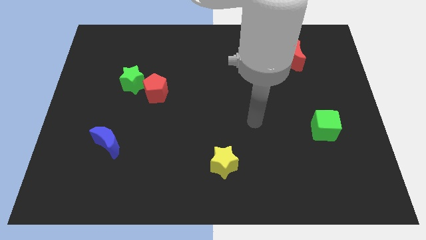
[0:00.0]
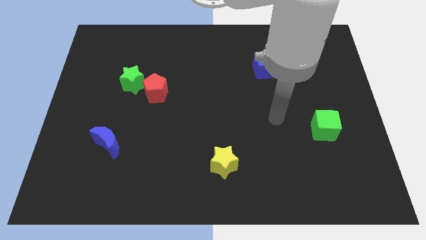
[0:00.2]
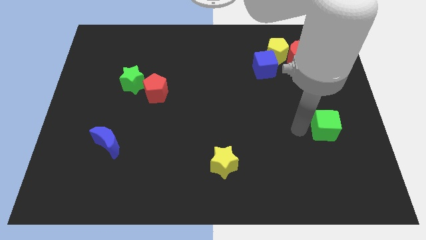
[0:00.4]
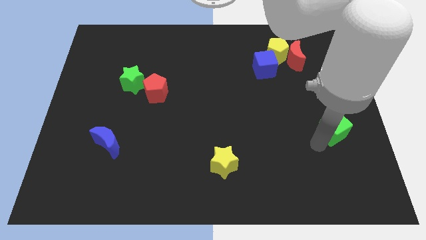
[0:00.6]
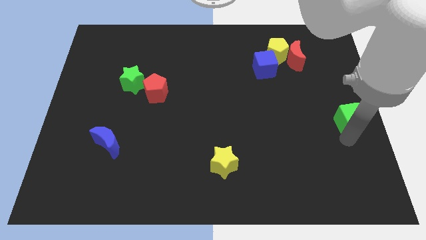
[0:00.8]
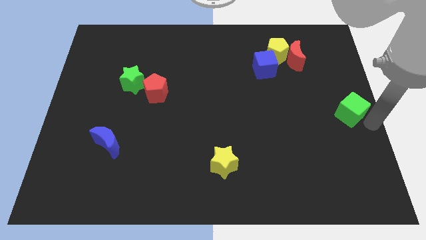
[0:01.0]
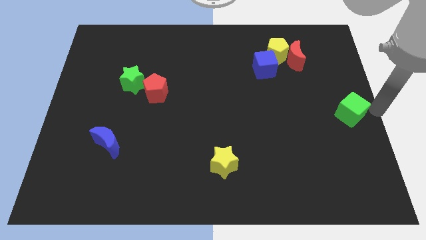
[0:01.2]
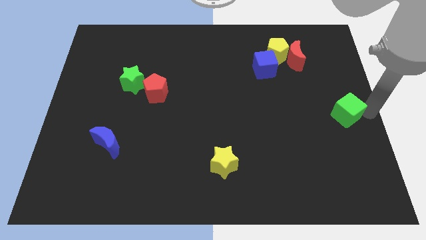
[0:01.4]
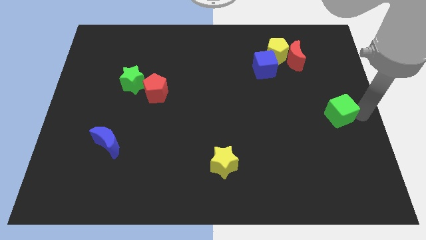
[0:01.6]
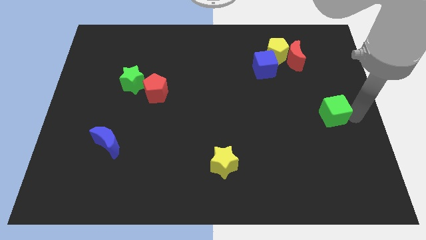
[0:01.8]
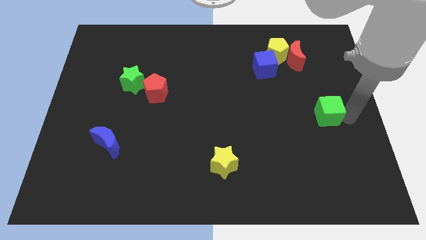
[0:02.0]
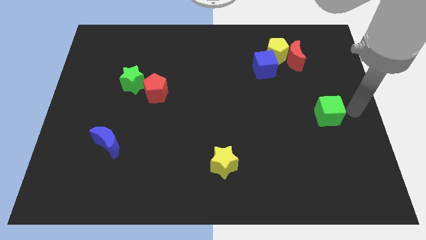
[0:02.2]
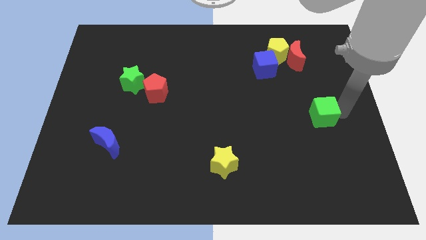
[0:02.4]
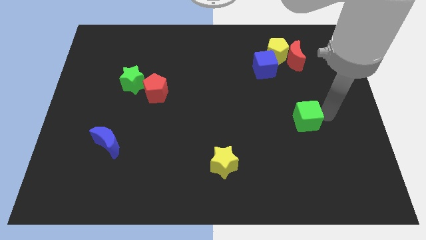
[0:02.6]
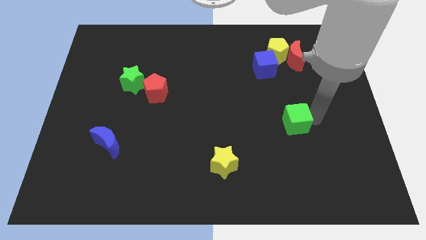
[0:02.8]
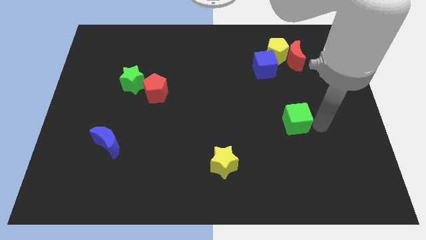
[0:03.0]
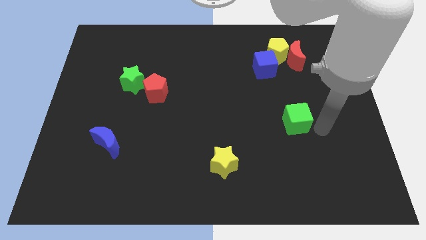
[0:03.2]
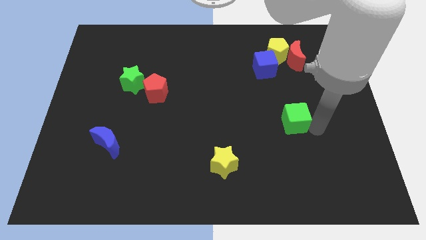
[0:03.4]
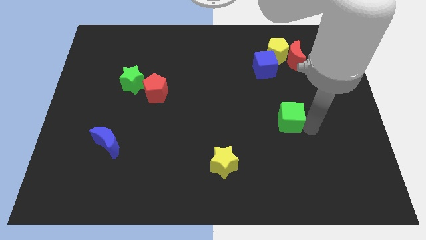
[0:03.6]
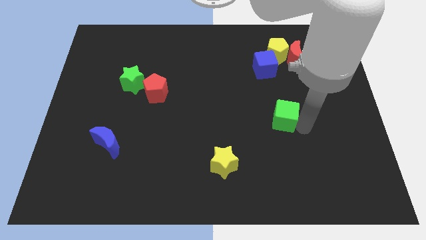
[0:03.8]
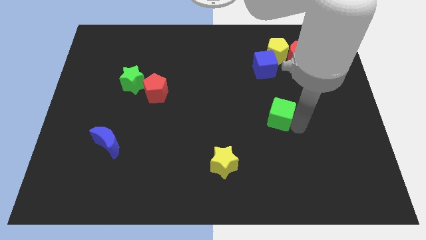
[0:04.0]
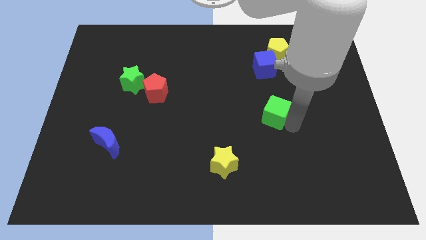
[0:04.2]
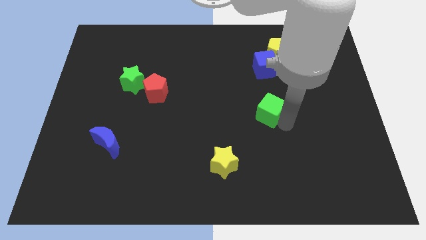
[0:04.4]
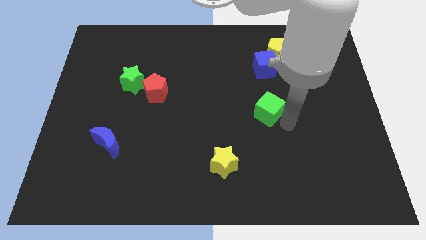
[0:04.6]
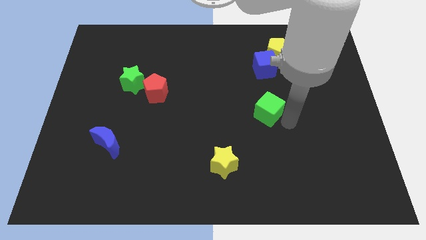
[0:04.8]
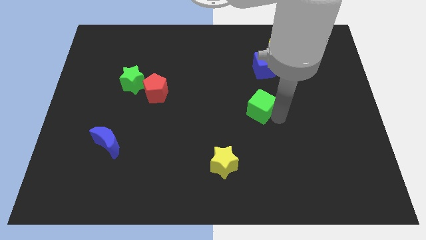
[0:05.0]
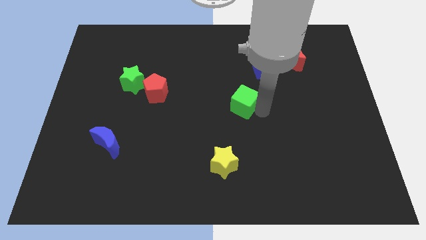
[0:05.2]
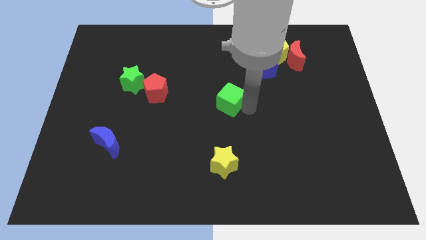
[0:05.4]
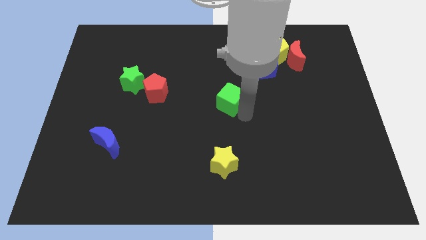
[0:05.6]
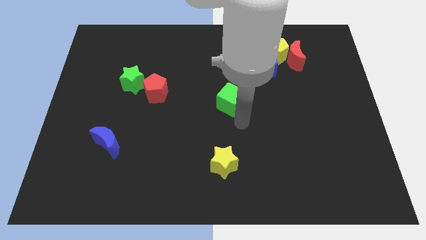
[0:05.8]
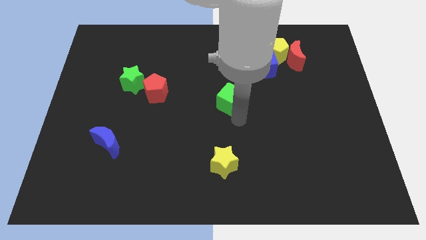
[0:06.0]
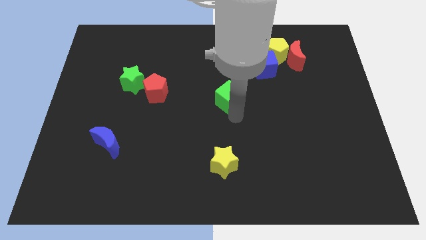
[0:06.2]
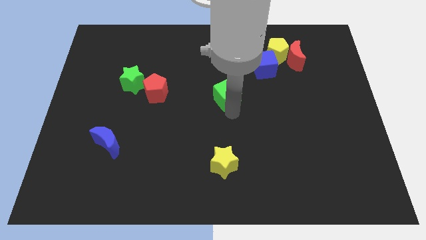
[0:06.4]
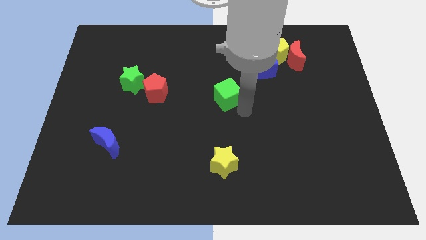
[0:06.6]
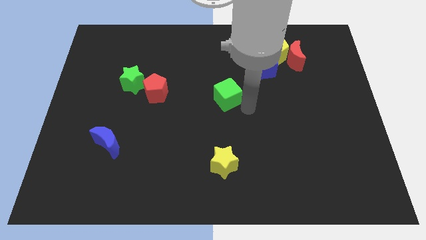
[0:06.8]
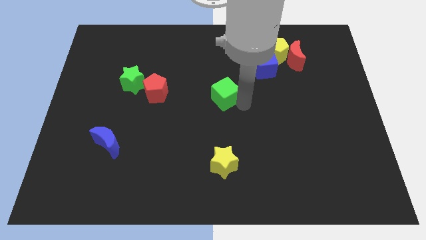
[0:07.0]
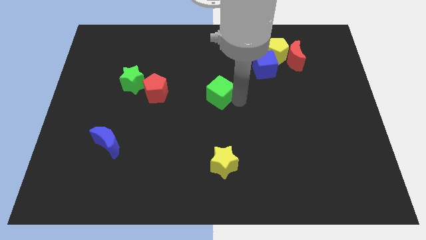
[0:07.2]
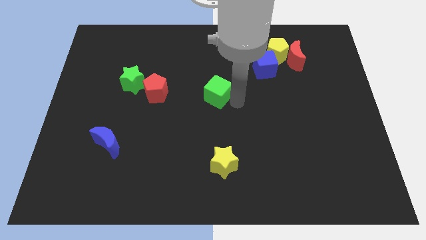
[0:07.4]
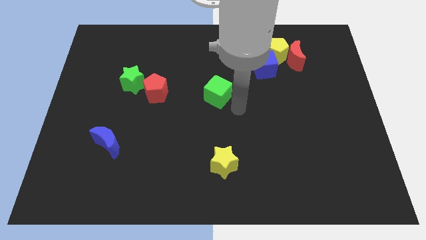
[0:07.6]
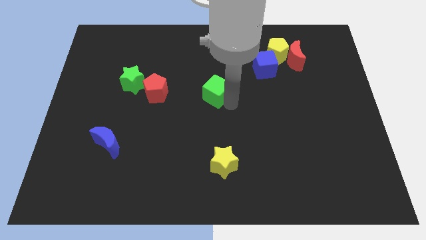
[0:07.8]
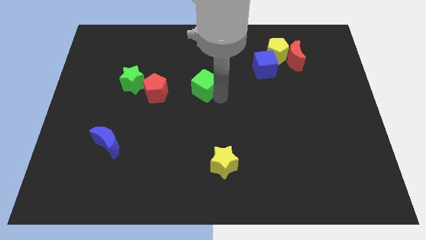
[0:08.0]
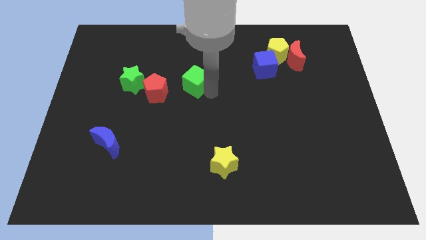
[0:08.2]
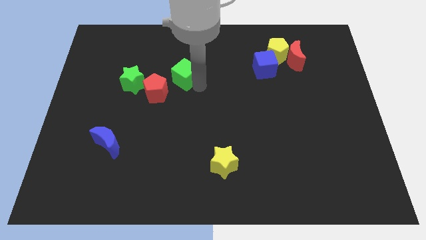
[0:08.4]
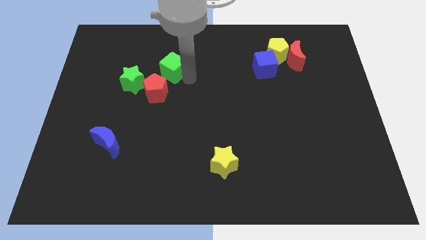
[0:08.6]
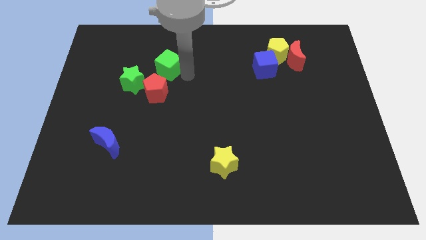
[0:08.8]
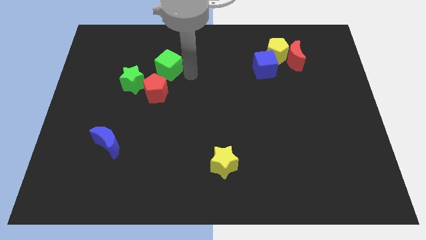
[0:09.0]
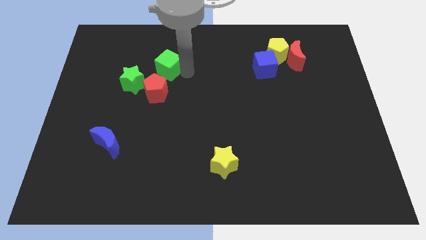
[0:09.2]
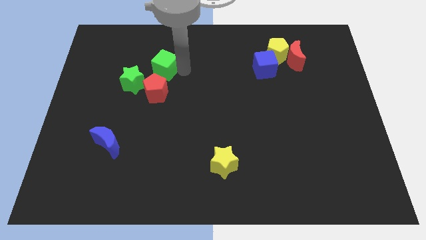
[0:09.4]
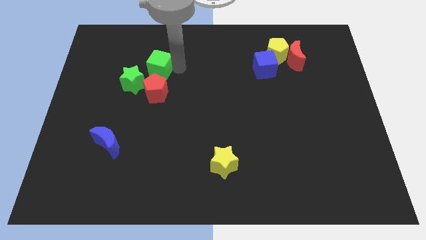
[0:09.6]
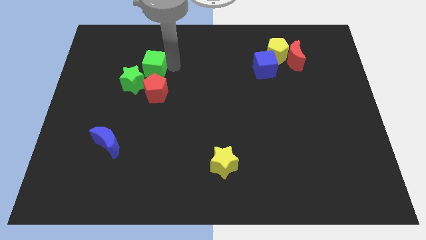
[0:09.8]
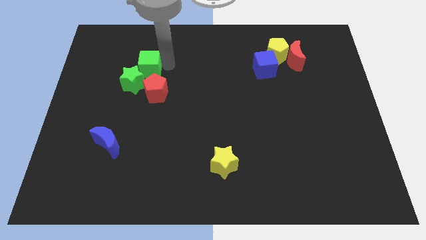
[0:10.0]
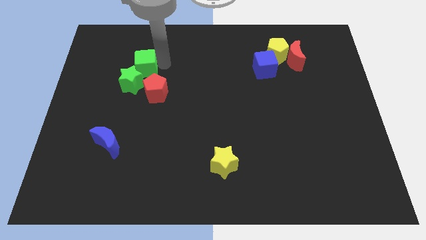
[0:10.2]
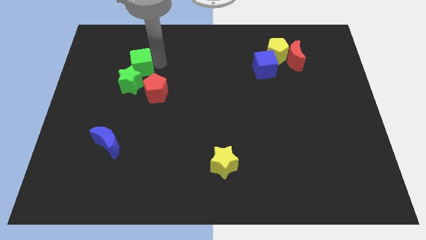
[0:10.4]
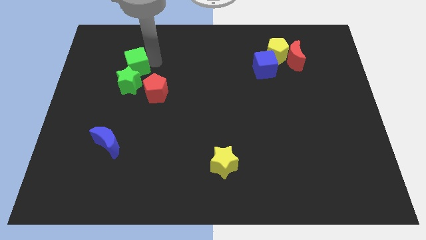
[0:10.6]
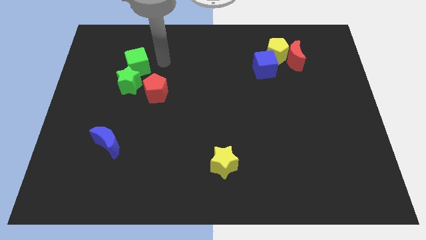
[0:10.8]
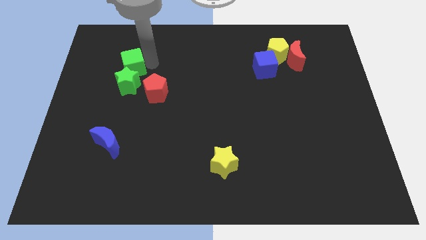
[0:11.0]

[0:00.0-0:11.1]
move the green cube to the top left side of the green star

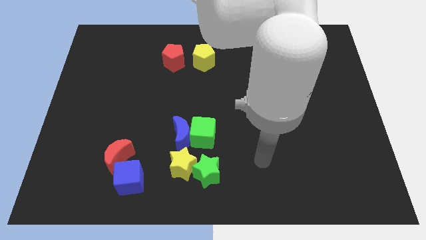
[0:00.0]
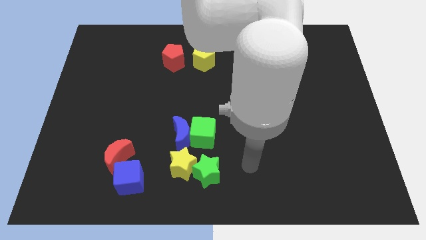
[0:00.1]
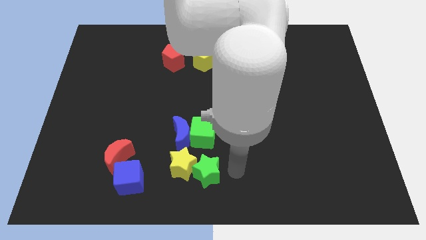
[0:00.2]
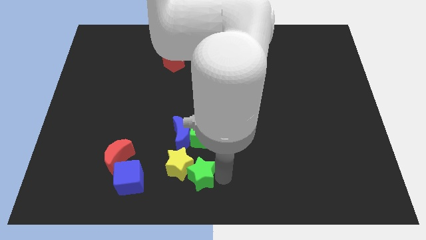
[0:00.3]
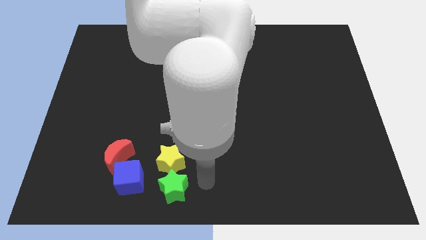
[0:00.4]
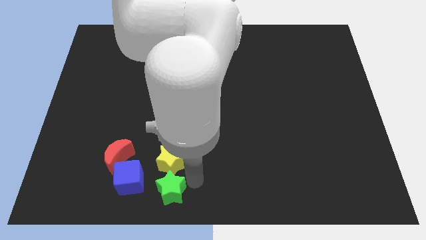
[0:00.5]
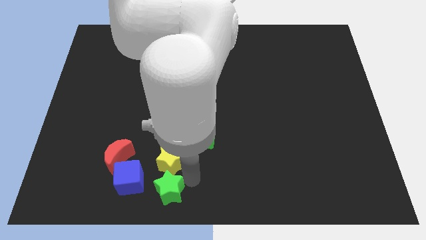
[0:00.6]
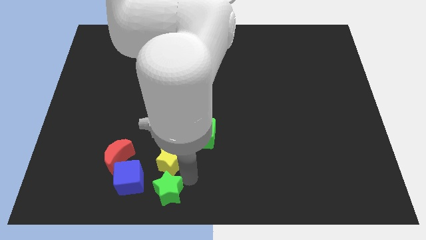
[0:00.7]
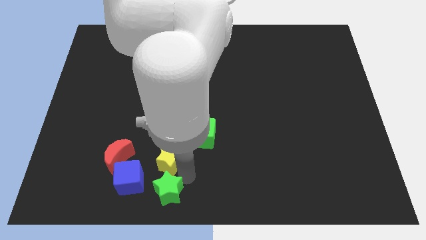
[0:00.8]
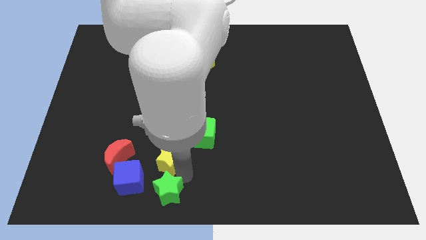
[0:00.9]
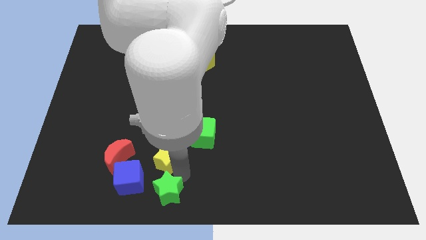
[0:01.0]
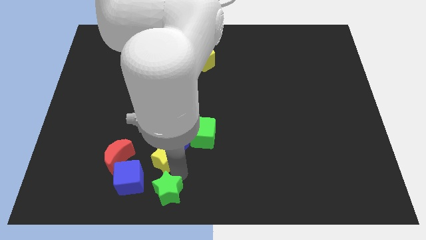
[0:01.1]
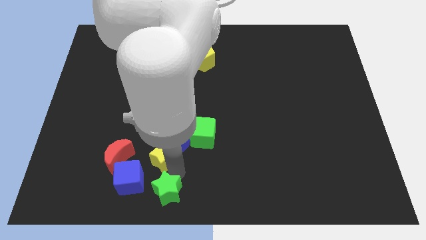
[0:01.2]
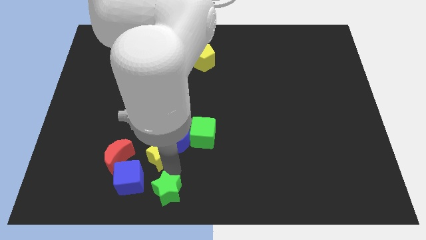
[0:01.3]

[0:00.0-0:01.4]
slide the yellow star to the left side of the blue moon

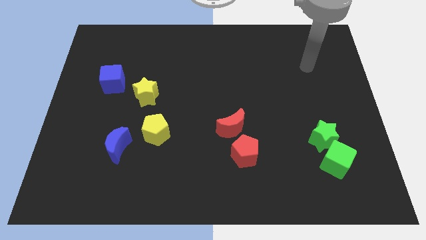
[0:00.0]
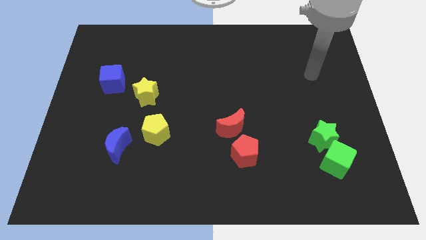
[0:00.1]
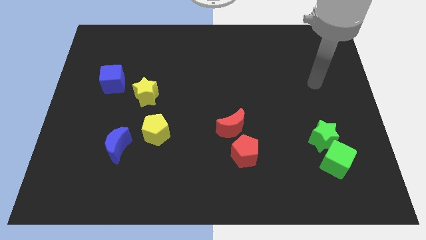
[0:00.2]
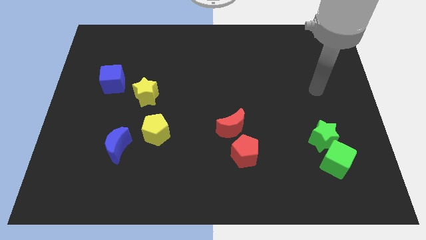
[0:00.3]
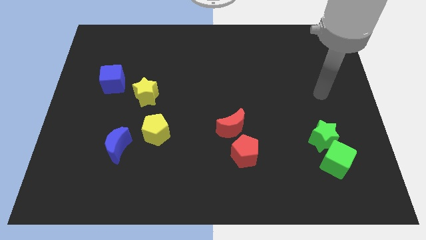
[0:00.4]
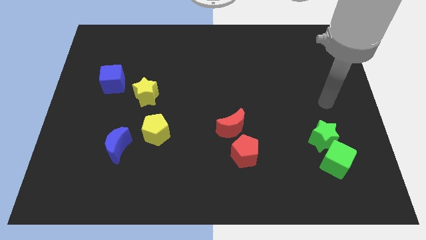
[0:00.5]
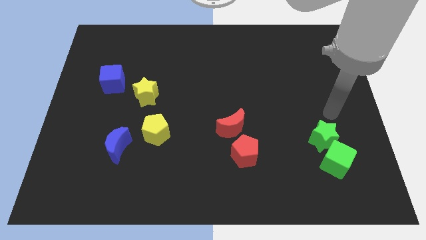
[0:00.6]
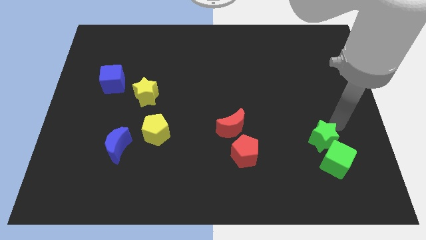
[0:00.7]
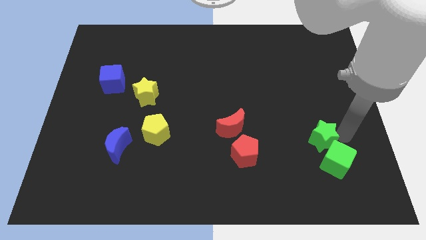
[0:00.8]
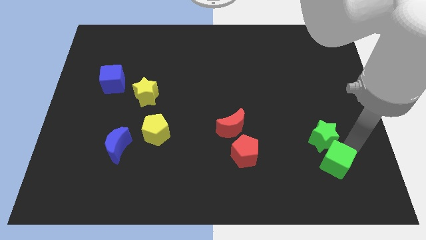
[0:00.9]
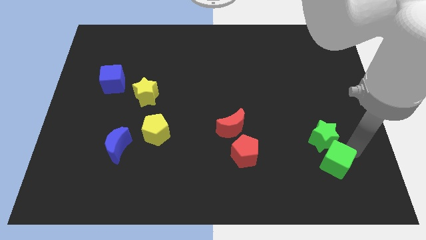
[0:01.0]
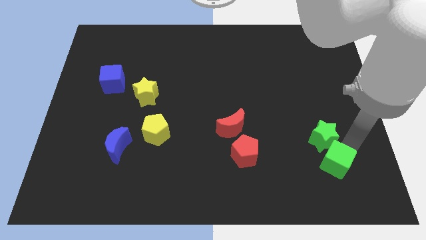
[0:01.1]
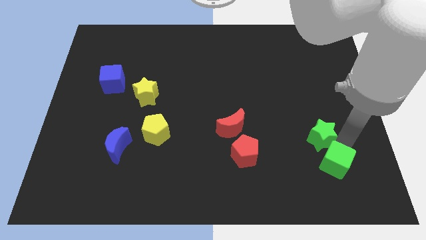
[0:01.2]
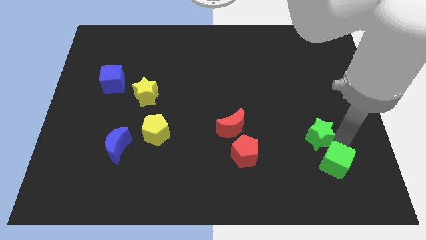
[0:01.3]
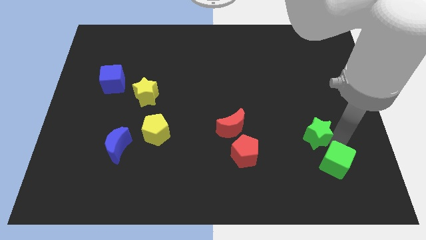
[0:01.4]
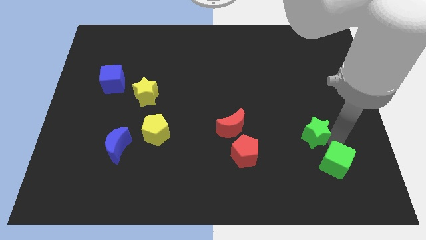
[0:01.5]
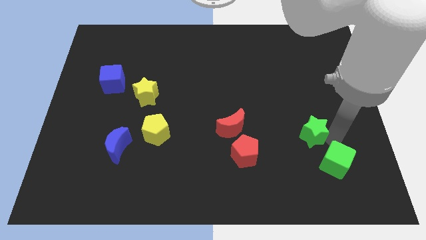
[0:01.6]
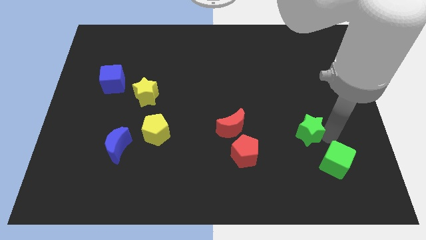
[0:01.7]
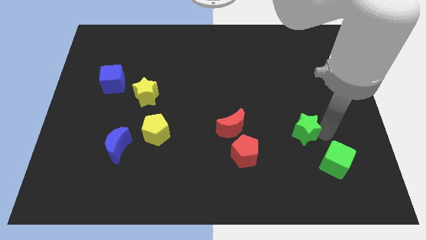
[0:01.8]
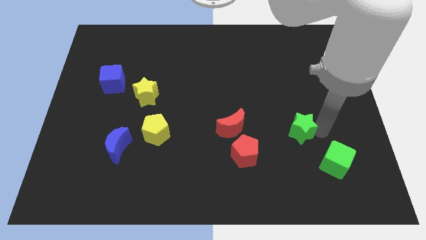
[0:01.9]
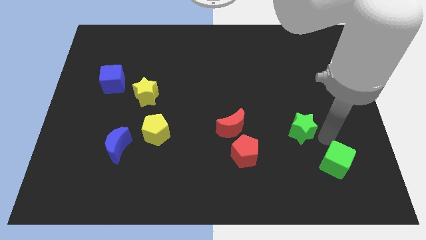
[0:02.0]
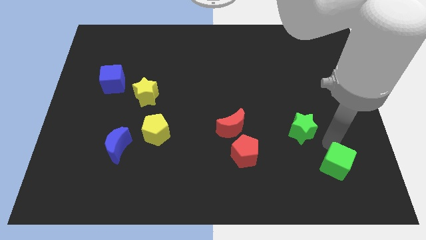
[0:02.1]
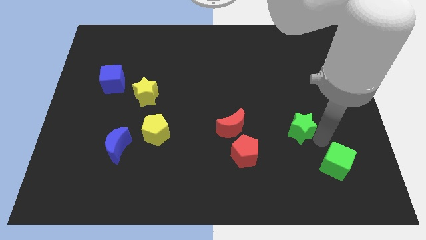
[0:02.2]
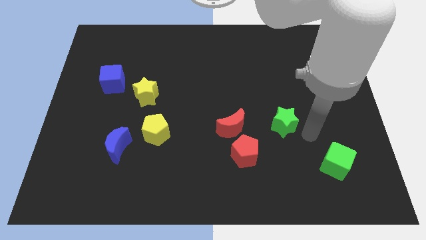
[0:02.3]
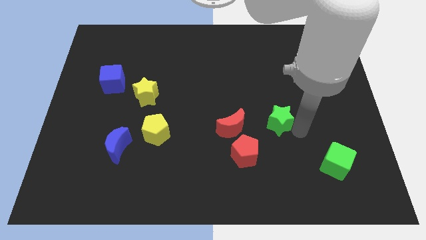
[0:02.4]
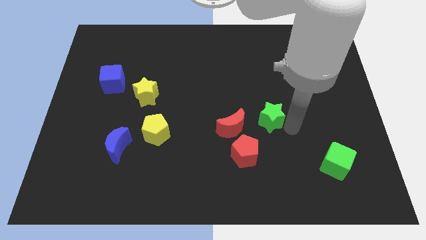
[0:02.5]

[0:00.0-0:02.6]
move the green star to the top right of the red moon
